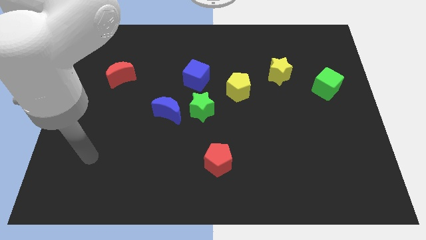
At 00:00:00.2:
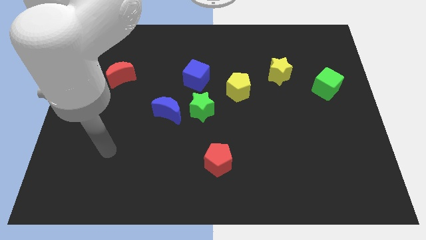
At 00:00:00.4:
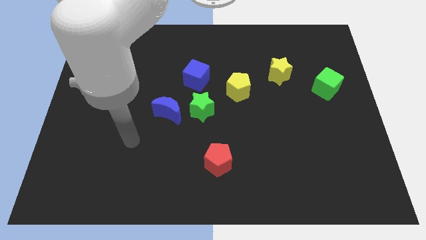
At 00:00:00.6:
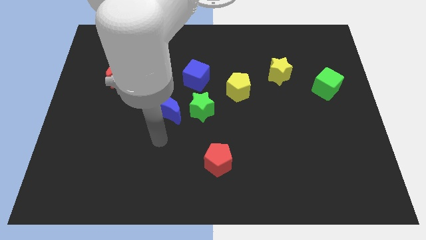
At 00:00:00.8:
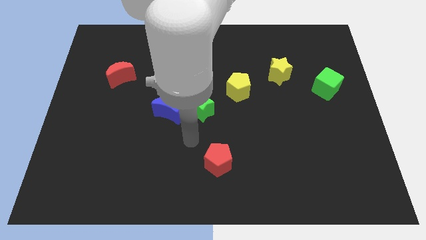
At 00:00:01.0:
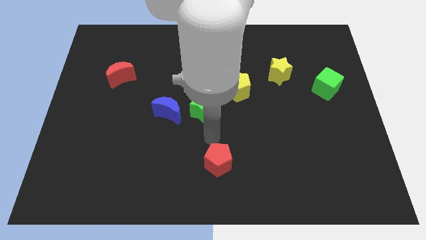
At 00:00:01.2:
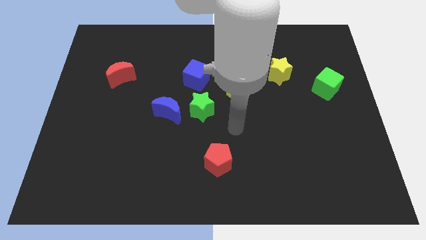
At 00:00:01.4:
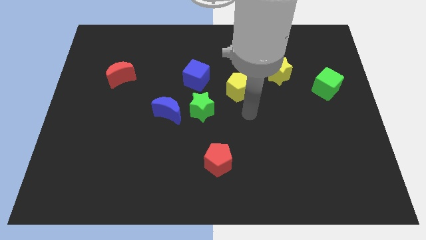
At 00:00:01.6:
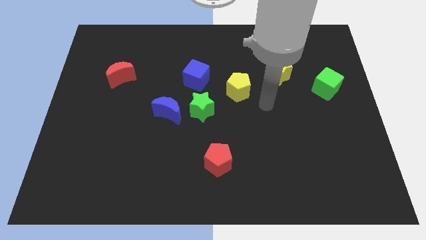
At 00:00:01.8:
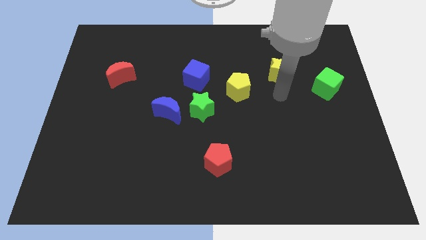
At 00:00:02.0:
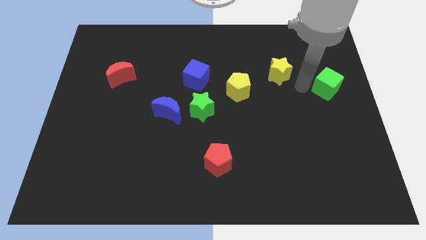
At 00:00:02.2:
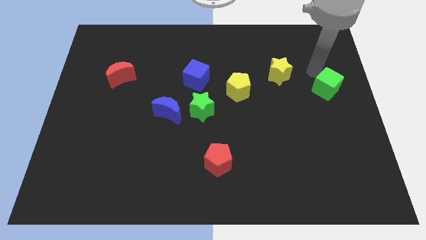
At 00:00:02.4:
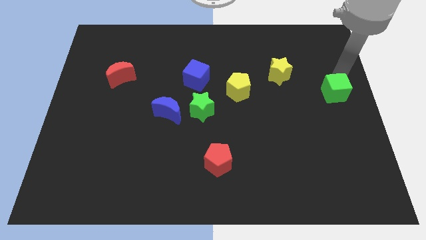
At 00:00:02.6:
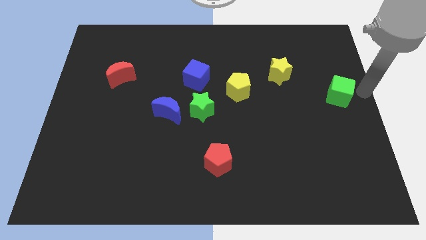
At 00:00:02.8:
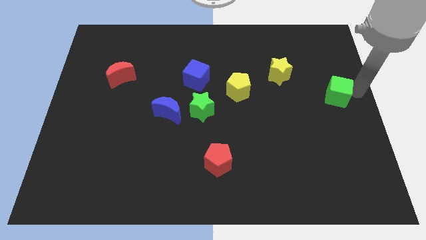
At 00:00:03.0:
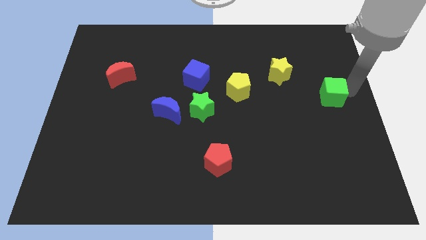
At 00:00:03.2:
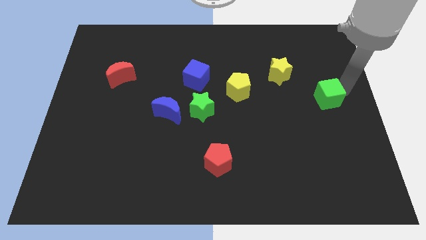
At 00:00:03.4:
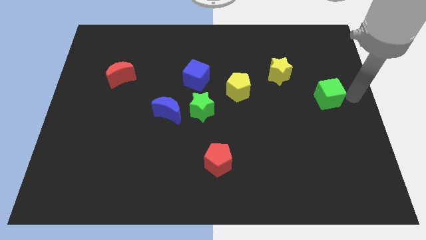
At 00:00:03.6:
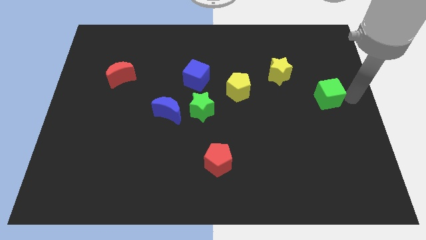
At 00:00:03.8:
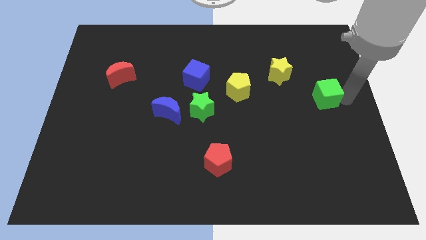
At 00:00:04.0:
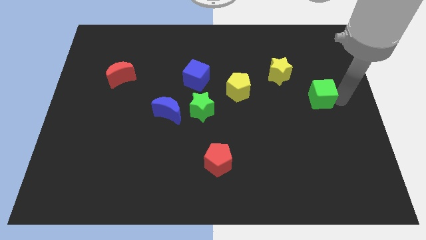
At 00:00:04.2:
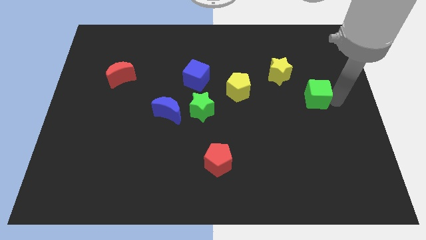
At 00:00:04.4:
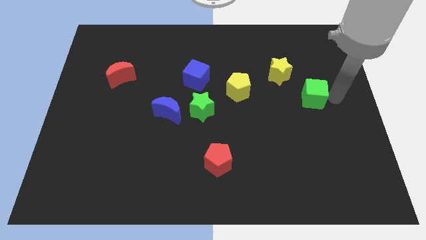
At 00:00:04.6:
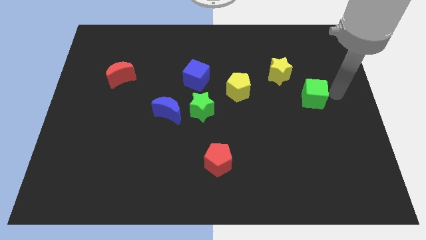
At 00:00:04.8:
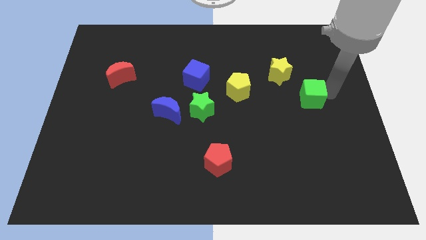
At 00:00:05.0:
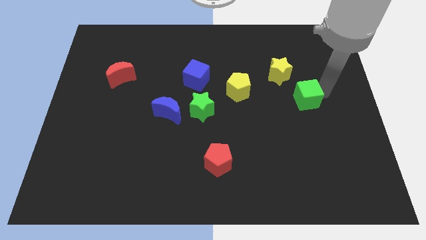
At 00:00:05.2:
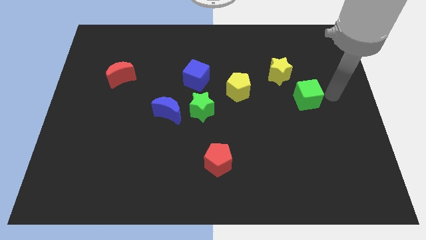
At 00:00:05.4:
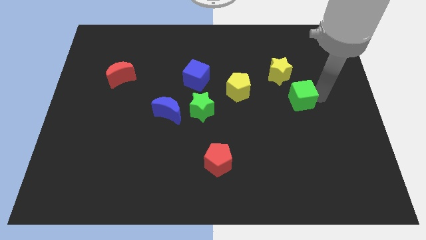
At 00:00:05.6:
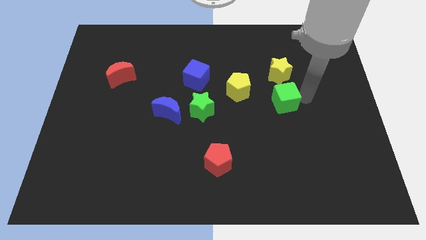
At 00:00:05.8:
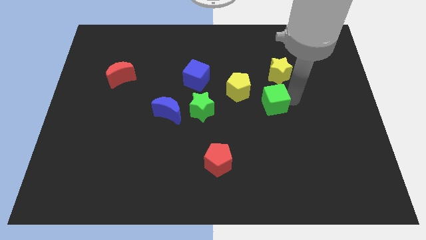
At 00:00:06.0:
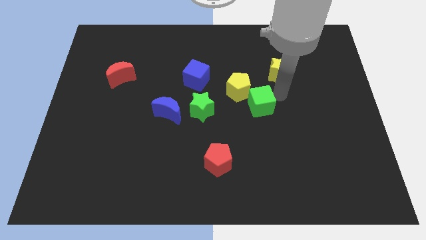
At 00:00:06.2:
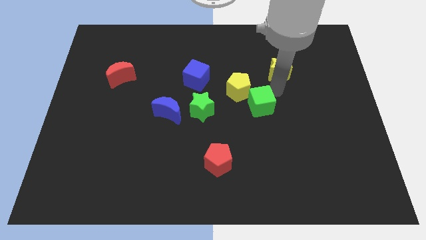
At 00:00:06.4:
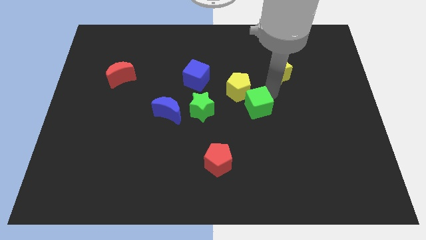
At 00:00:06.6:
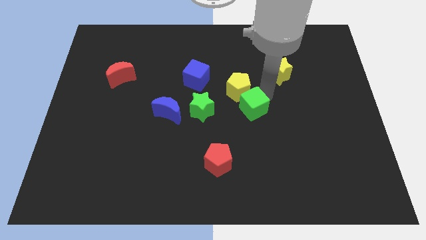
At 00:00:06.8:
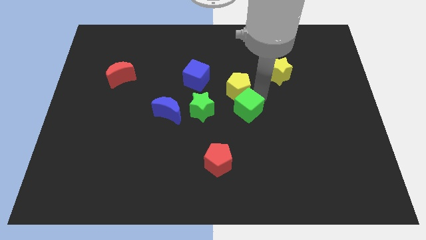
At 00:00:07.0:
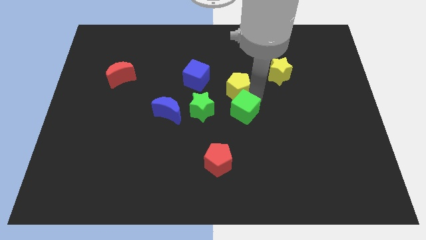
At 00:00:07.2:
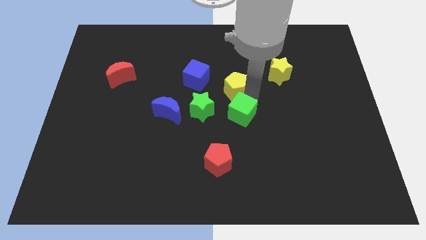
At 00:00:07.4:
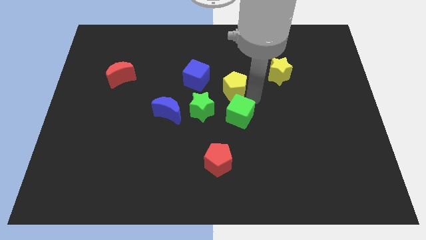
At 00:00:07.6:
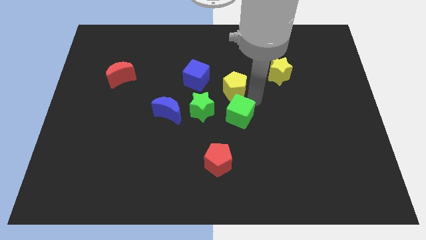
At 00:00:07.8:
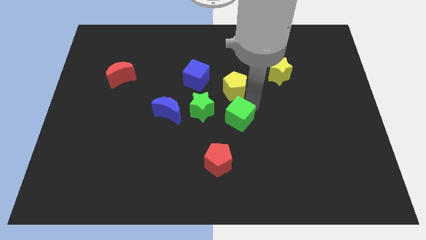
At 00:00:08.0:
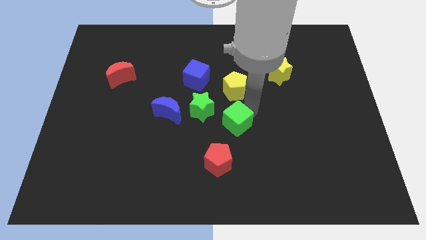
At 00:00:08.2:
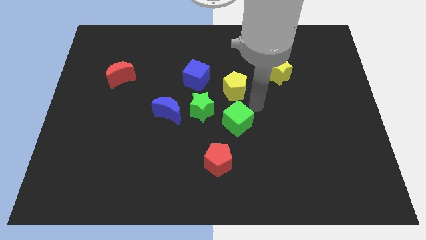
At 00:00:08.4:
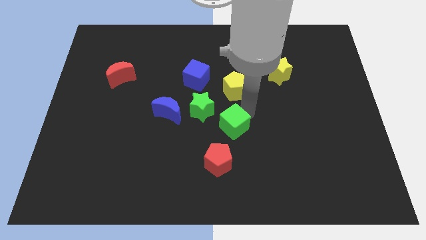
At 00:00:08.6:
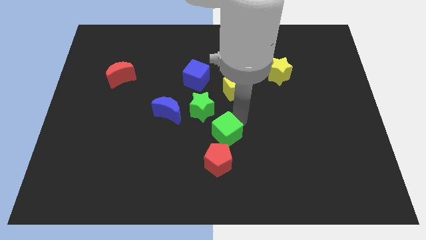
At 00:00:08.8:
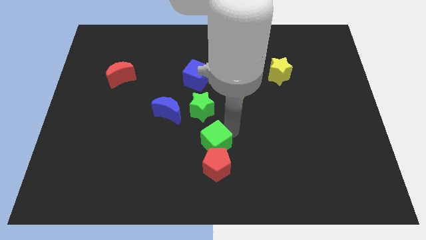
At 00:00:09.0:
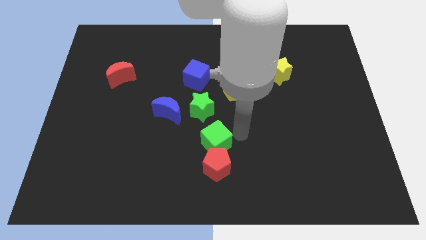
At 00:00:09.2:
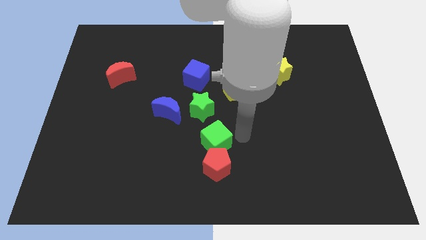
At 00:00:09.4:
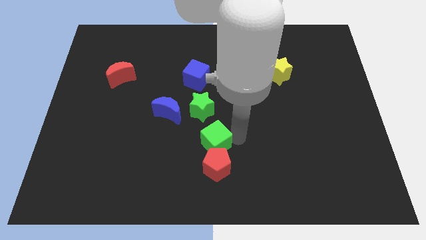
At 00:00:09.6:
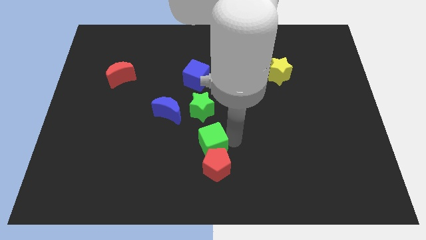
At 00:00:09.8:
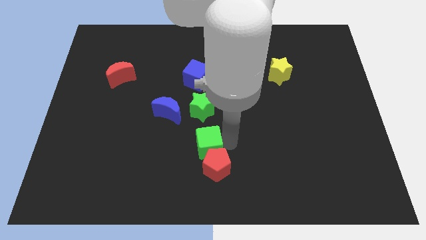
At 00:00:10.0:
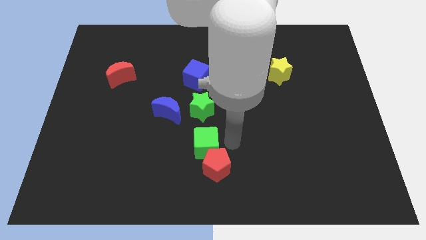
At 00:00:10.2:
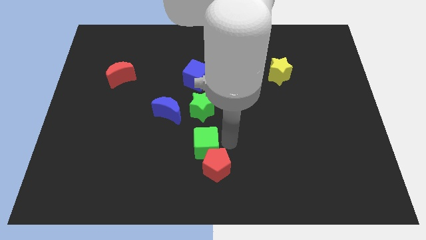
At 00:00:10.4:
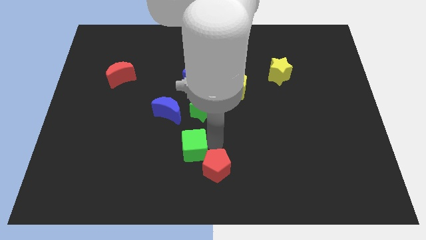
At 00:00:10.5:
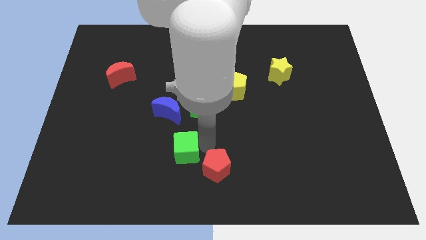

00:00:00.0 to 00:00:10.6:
slide the green cube below the blue moon

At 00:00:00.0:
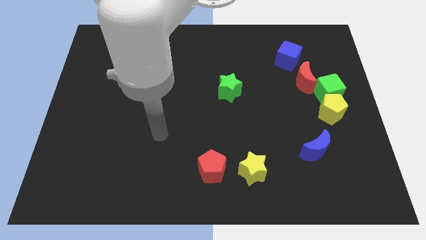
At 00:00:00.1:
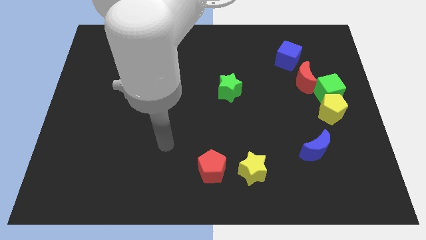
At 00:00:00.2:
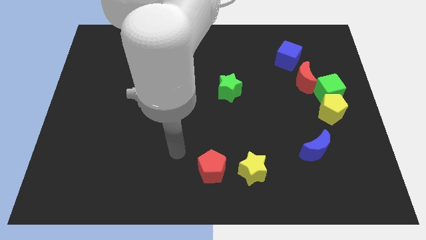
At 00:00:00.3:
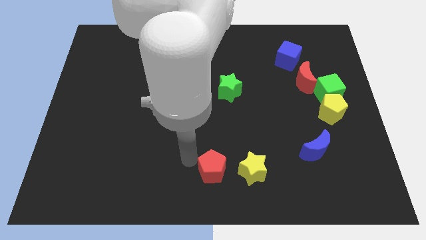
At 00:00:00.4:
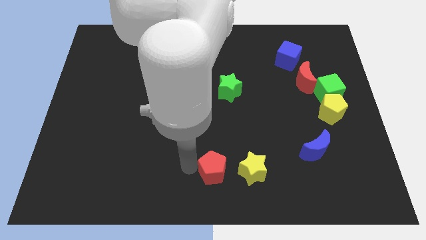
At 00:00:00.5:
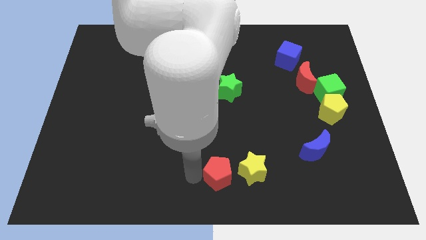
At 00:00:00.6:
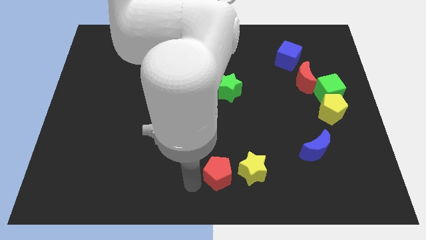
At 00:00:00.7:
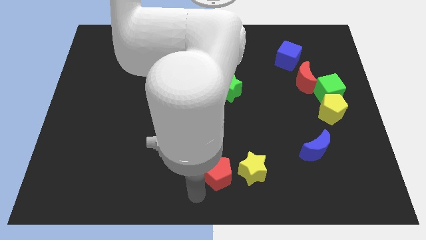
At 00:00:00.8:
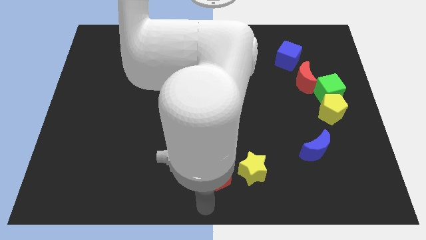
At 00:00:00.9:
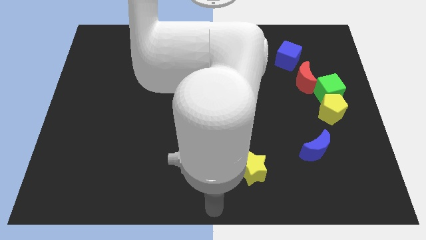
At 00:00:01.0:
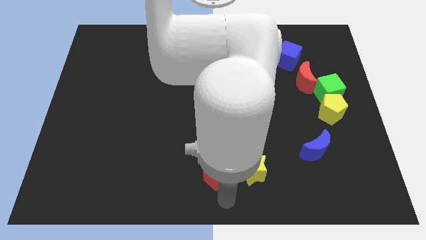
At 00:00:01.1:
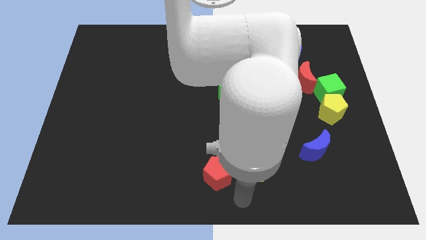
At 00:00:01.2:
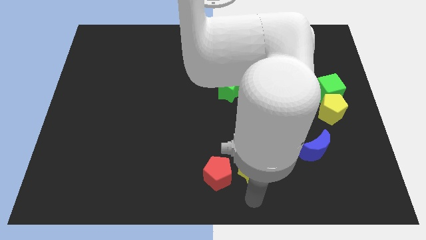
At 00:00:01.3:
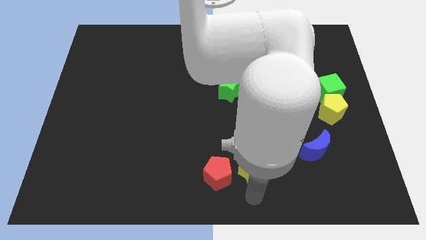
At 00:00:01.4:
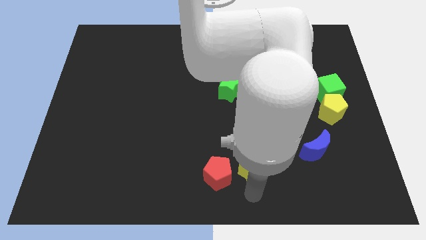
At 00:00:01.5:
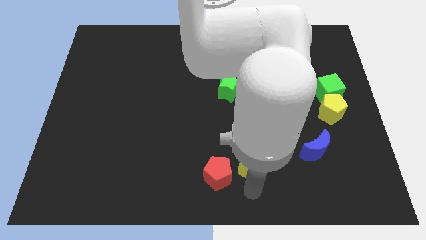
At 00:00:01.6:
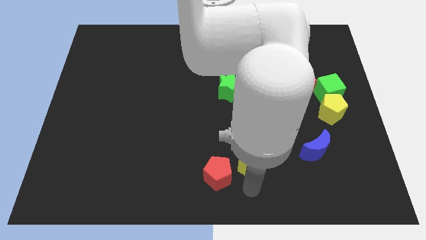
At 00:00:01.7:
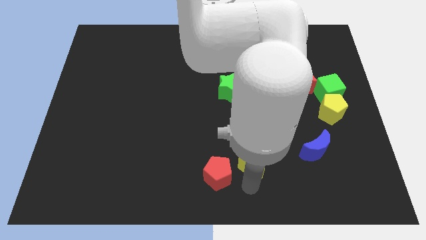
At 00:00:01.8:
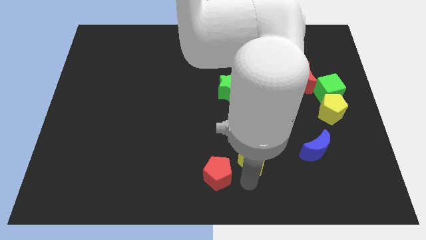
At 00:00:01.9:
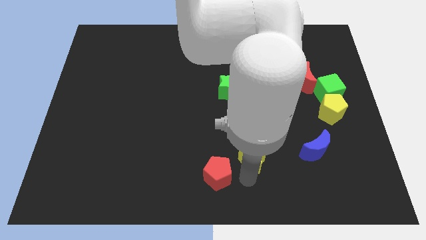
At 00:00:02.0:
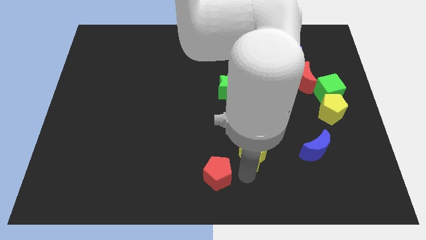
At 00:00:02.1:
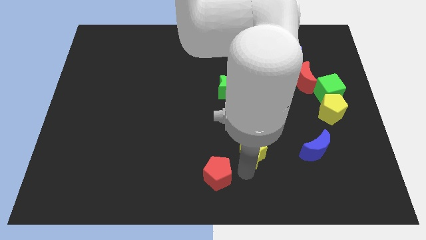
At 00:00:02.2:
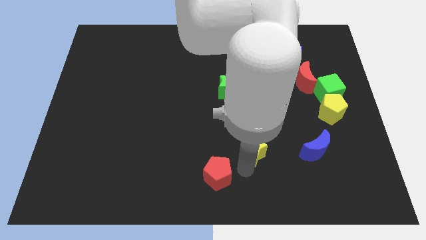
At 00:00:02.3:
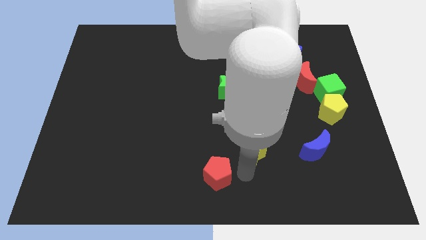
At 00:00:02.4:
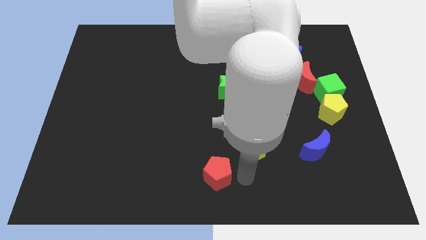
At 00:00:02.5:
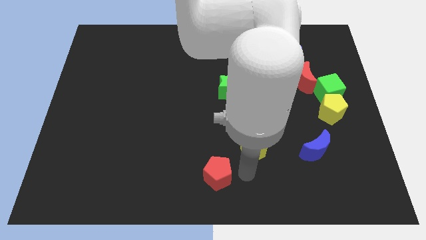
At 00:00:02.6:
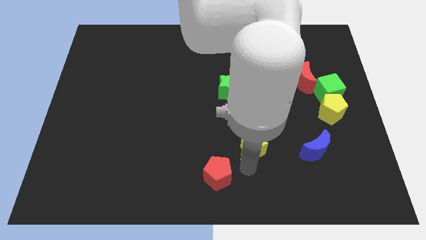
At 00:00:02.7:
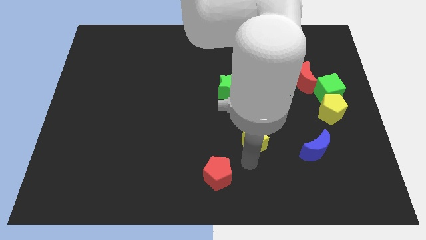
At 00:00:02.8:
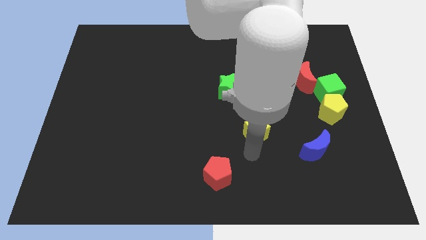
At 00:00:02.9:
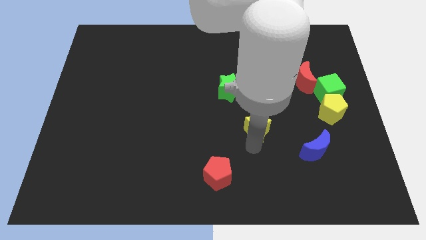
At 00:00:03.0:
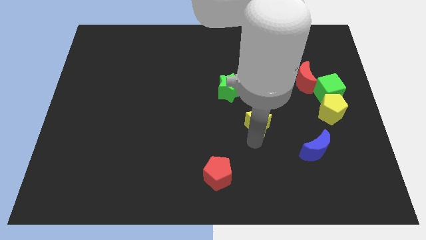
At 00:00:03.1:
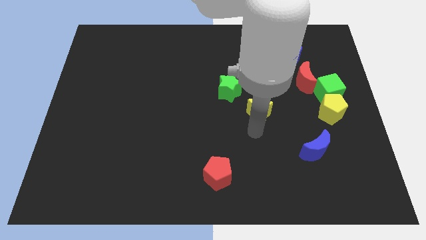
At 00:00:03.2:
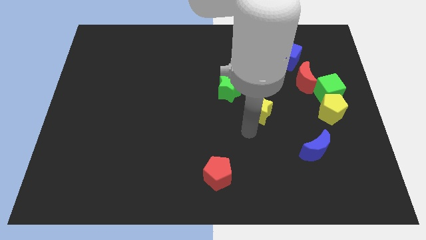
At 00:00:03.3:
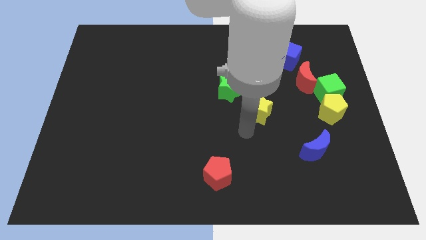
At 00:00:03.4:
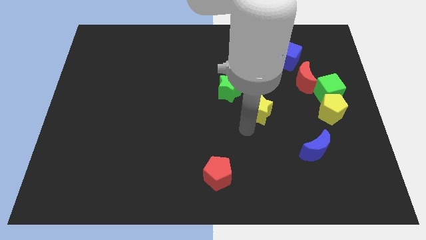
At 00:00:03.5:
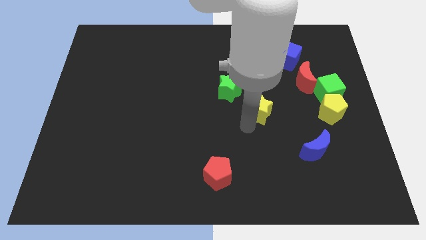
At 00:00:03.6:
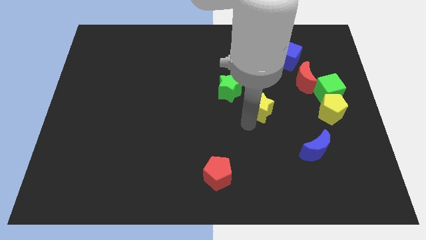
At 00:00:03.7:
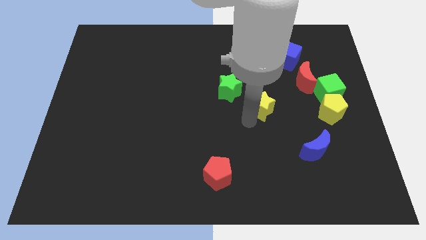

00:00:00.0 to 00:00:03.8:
put the yellow star right of the green star
